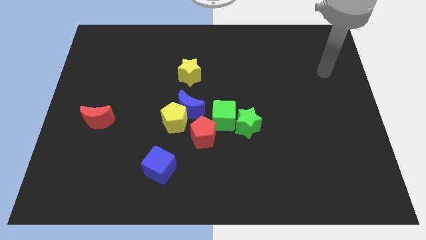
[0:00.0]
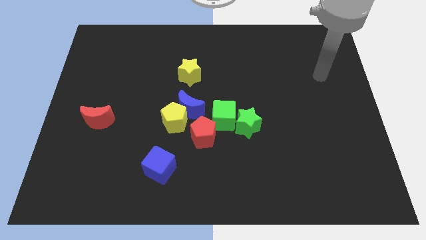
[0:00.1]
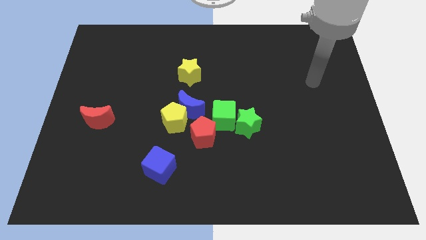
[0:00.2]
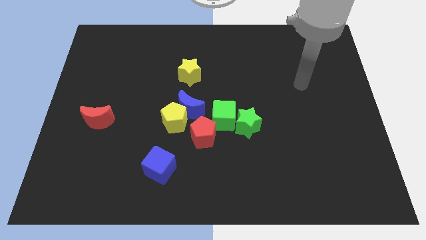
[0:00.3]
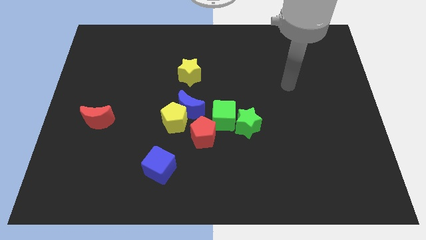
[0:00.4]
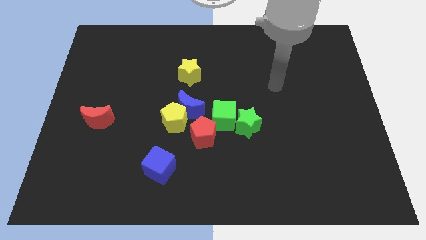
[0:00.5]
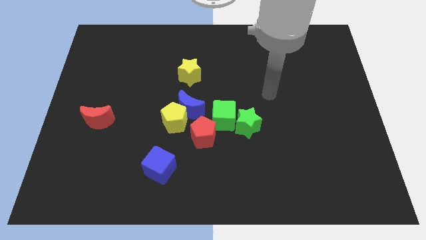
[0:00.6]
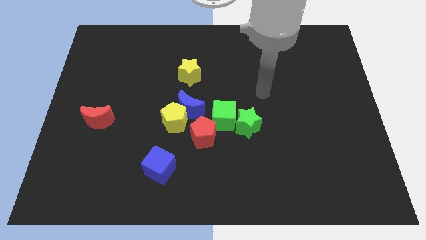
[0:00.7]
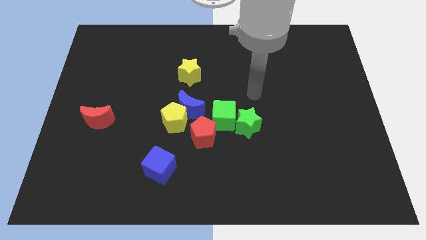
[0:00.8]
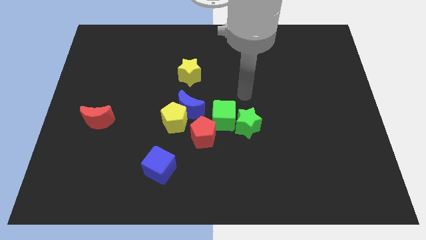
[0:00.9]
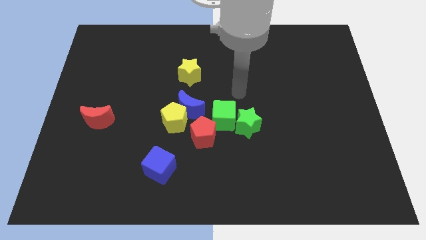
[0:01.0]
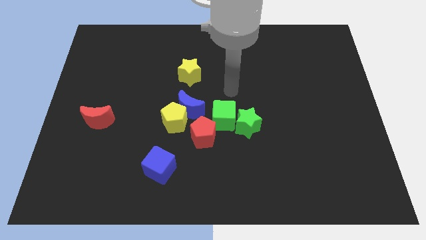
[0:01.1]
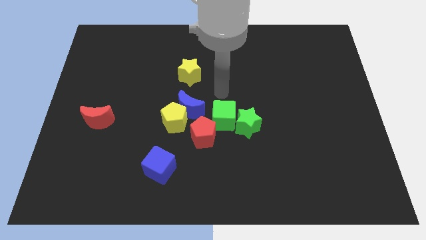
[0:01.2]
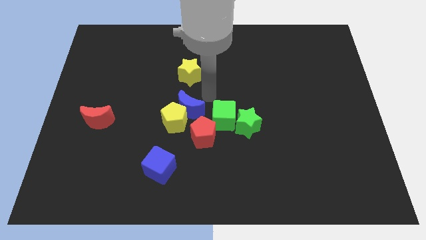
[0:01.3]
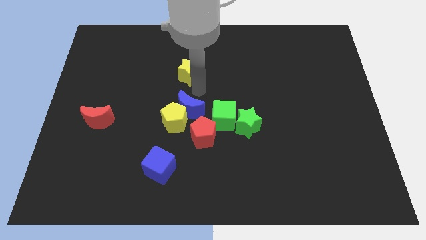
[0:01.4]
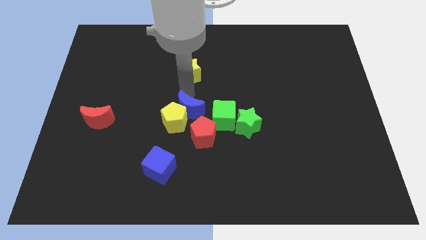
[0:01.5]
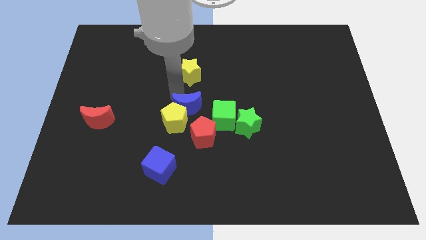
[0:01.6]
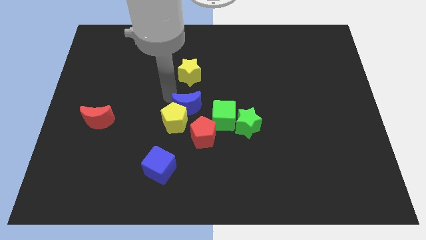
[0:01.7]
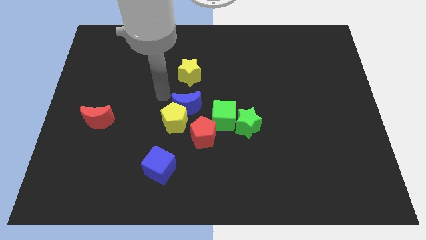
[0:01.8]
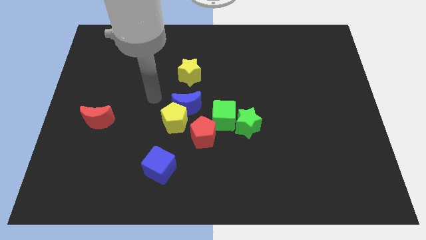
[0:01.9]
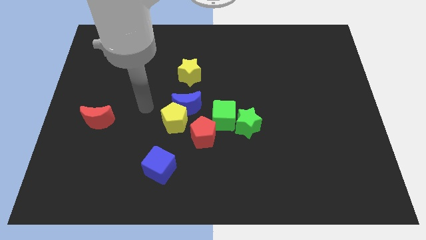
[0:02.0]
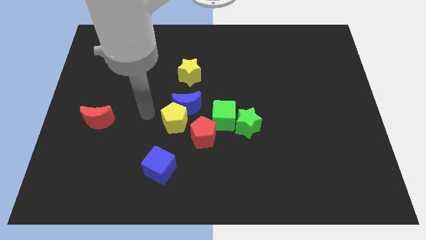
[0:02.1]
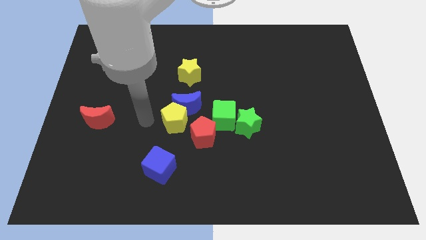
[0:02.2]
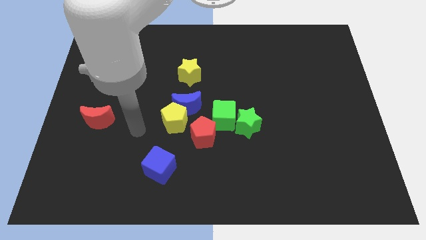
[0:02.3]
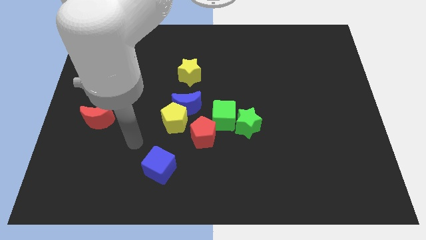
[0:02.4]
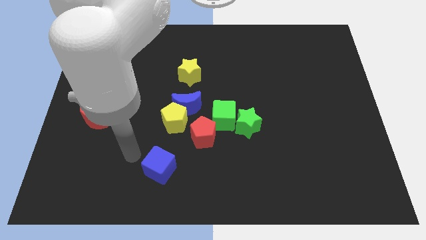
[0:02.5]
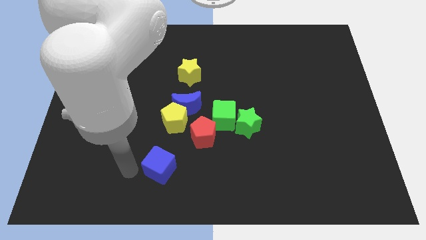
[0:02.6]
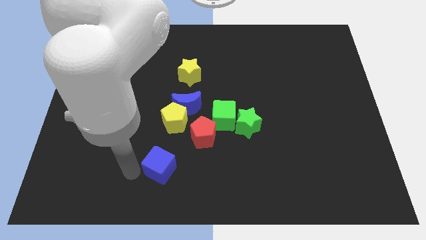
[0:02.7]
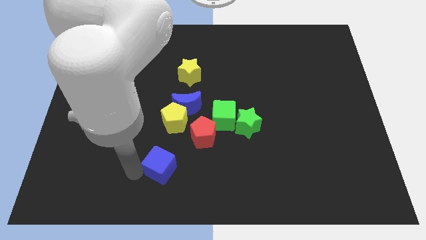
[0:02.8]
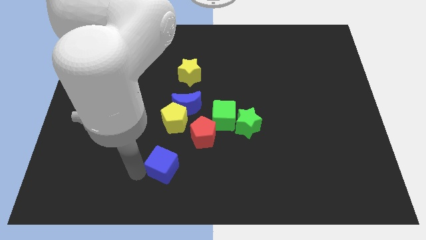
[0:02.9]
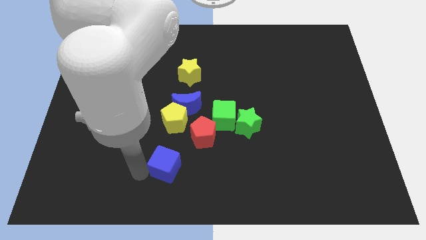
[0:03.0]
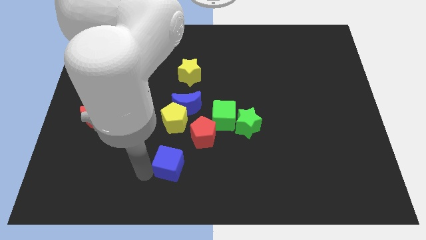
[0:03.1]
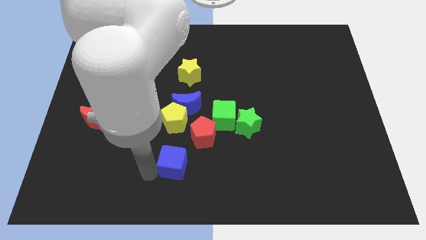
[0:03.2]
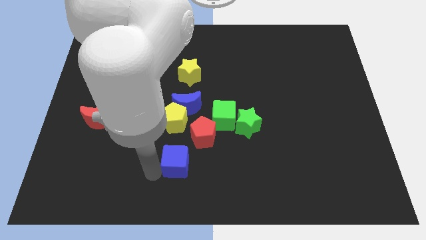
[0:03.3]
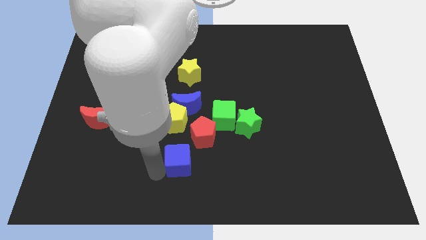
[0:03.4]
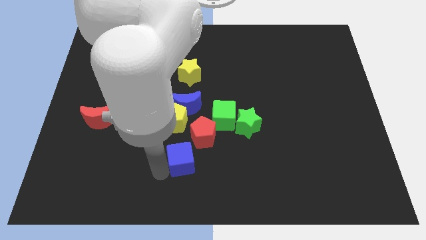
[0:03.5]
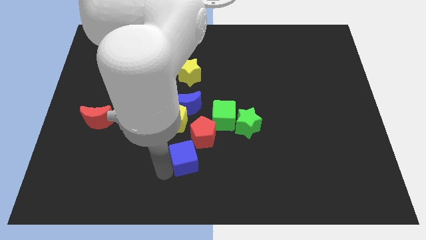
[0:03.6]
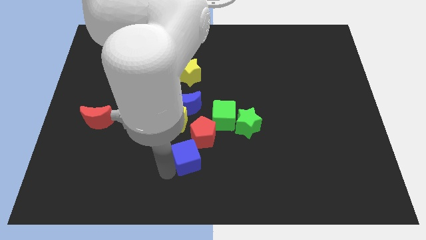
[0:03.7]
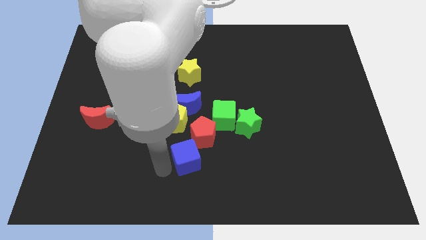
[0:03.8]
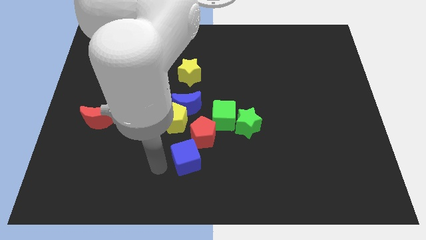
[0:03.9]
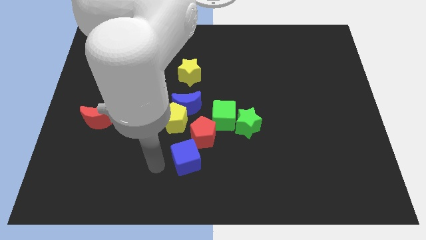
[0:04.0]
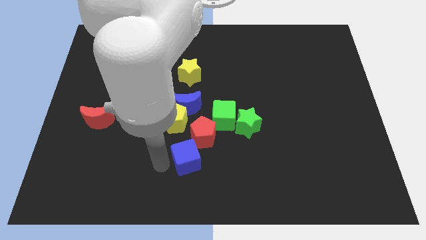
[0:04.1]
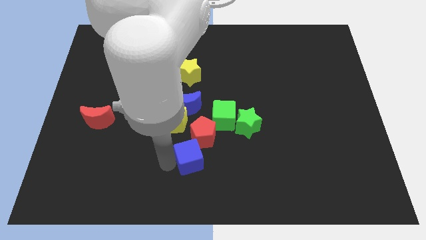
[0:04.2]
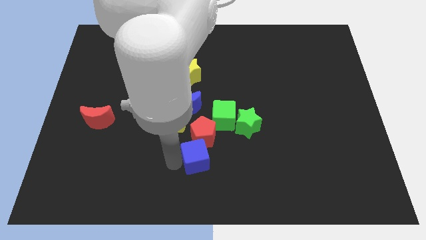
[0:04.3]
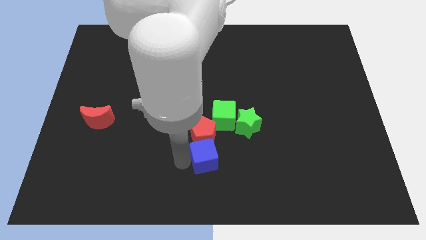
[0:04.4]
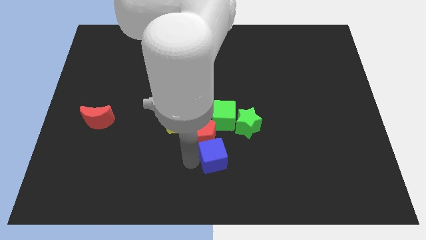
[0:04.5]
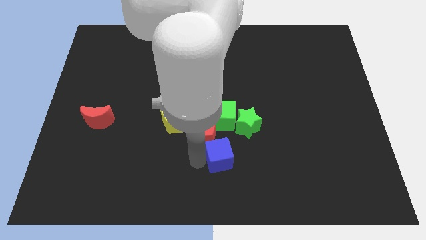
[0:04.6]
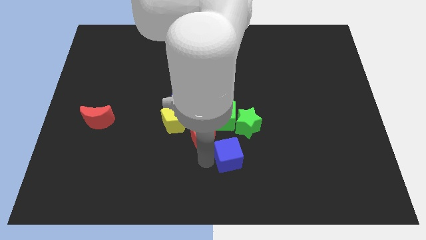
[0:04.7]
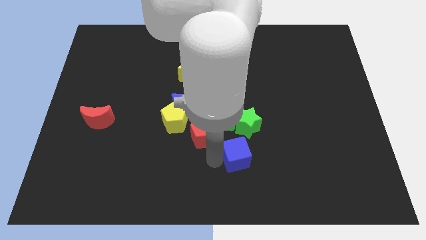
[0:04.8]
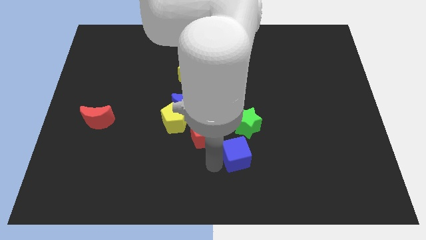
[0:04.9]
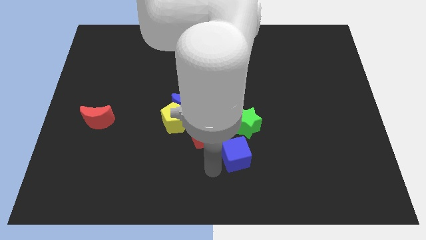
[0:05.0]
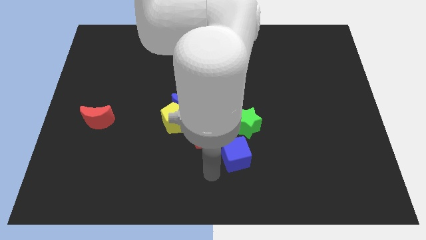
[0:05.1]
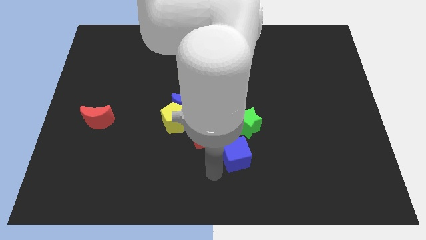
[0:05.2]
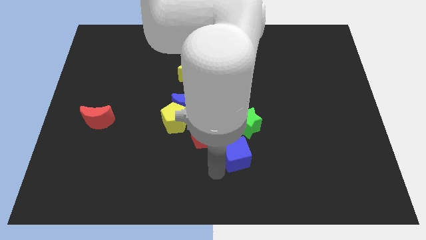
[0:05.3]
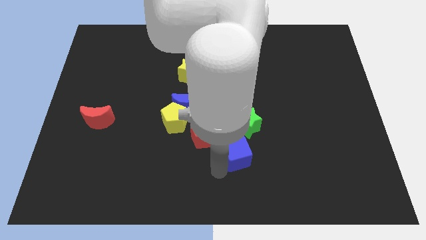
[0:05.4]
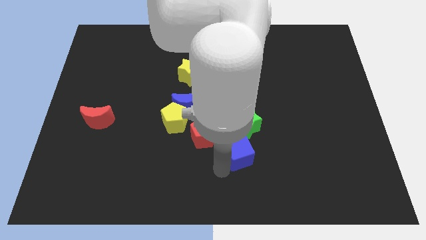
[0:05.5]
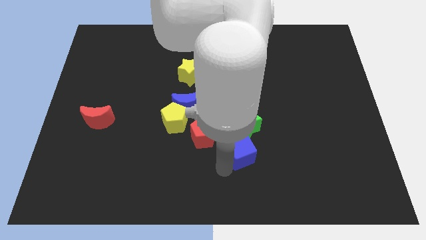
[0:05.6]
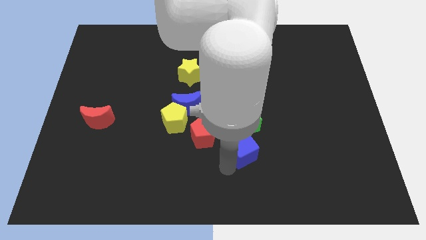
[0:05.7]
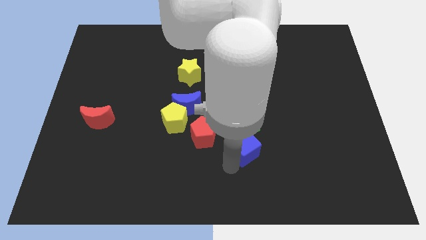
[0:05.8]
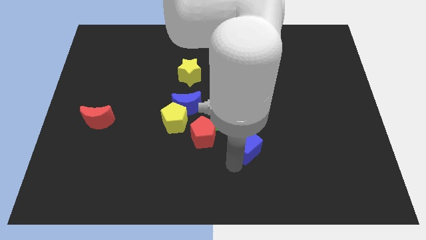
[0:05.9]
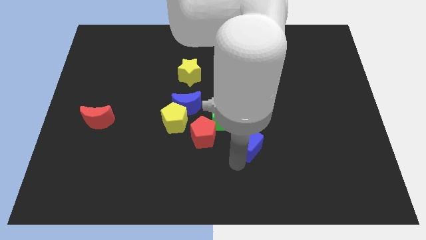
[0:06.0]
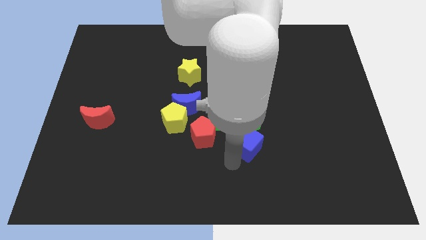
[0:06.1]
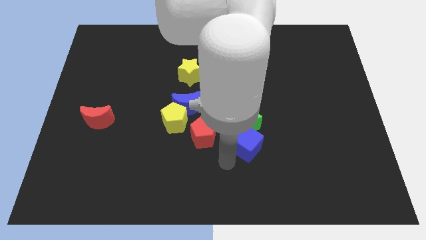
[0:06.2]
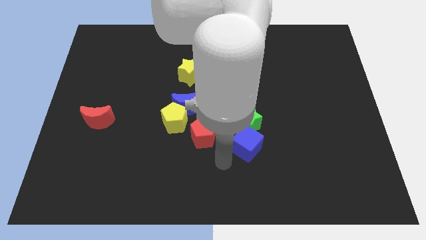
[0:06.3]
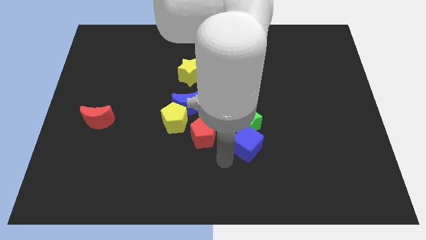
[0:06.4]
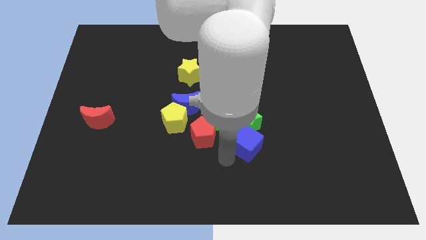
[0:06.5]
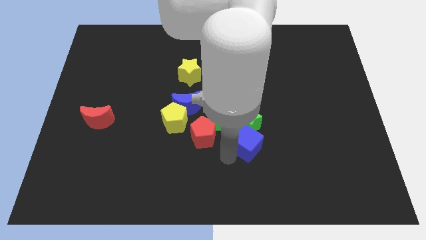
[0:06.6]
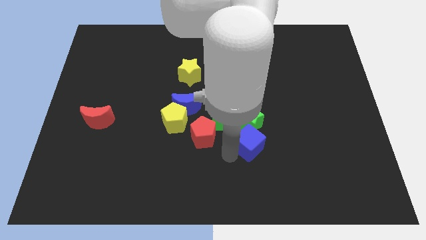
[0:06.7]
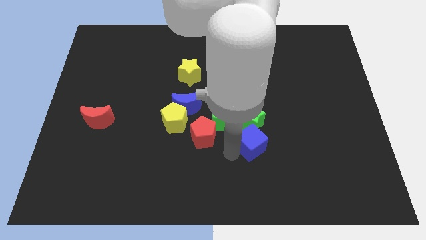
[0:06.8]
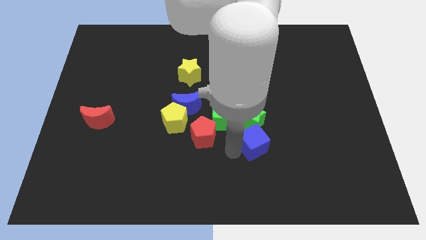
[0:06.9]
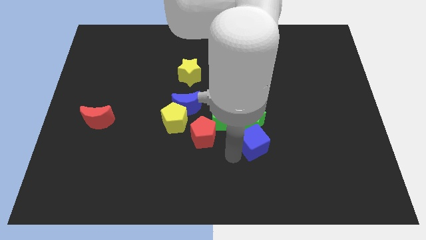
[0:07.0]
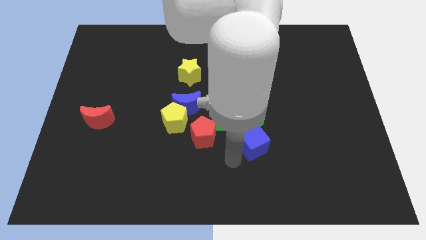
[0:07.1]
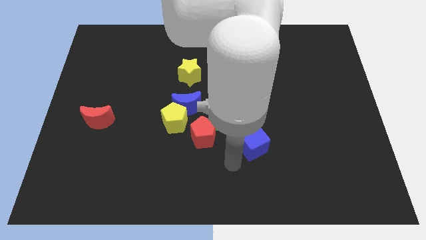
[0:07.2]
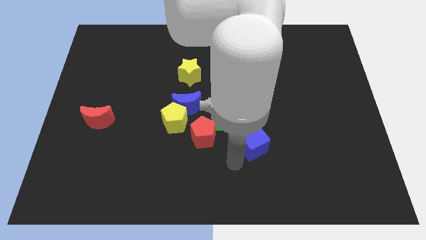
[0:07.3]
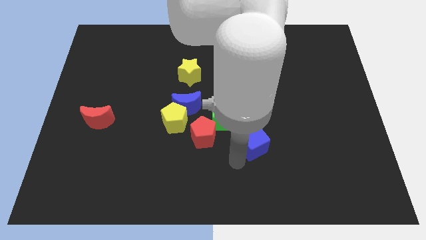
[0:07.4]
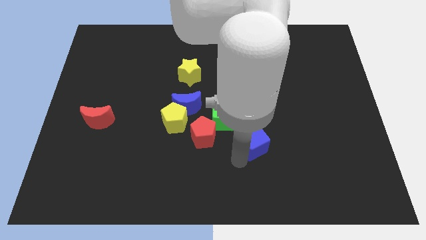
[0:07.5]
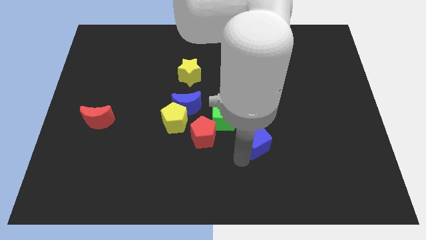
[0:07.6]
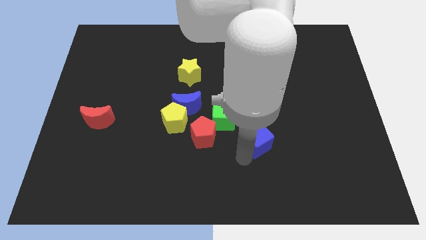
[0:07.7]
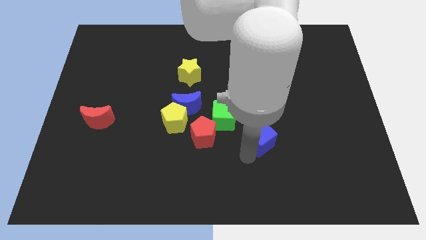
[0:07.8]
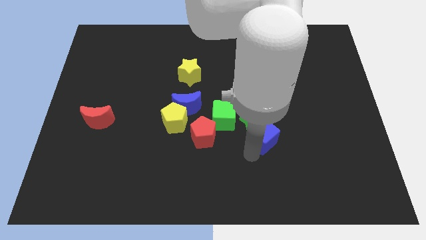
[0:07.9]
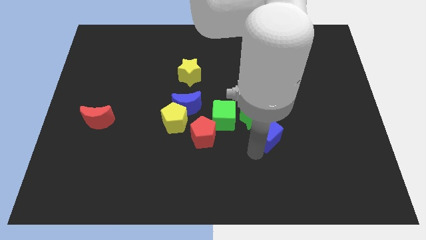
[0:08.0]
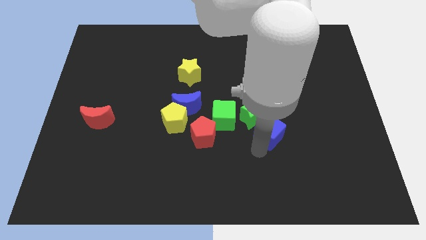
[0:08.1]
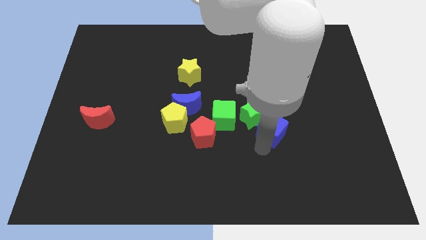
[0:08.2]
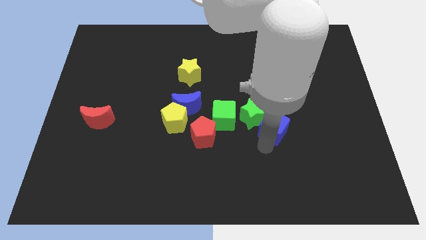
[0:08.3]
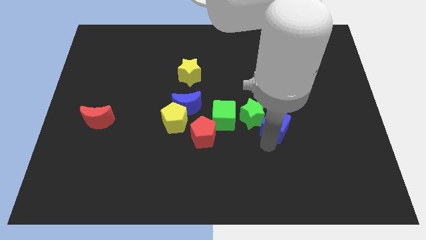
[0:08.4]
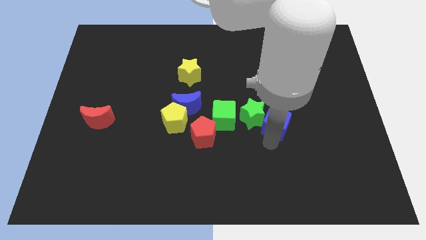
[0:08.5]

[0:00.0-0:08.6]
move the blue cube upwards and then to the right
